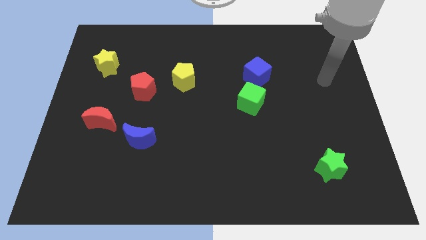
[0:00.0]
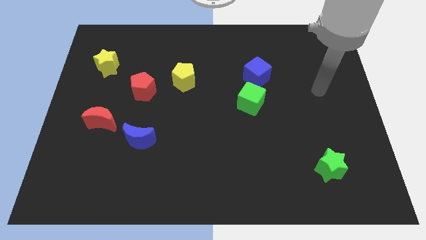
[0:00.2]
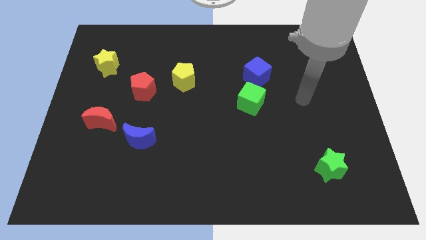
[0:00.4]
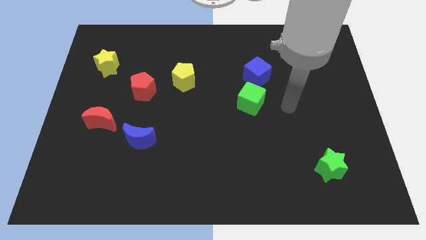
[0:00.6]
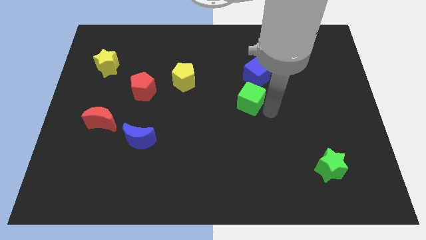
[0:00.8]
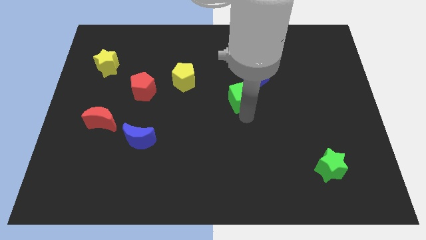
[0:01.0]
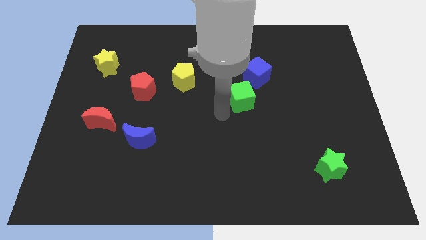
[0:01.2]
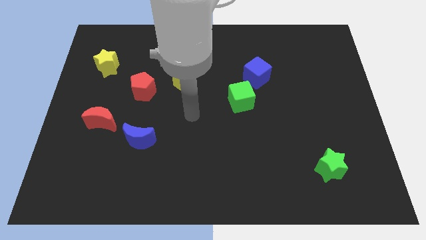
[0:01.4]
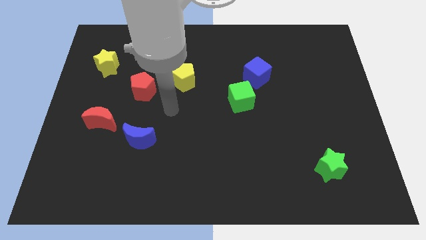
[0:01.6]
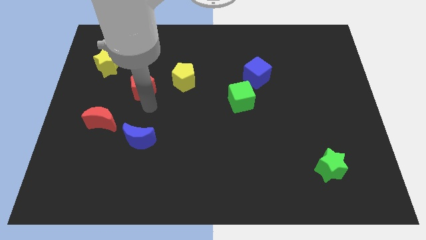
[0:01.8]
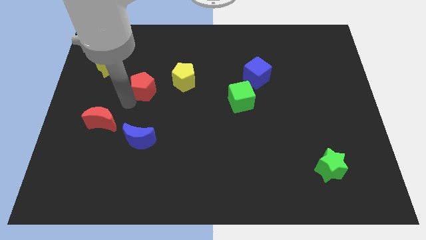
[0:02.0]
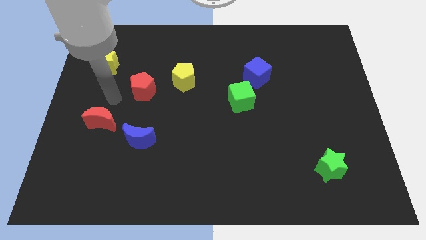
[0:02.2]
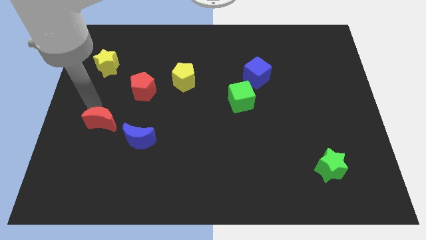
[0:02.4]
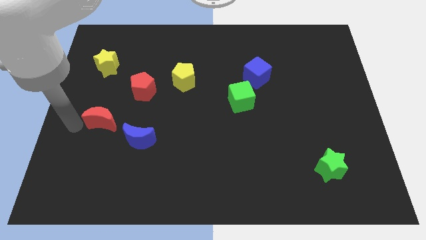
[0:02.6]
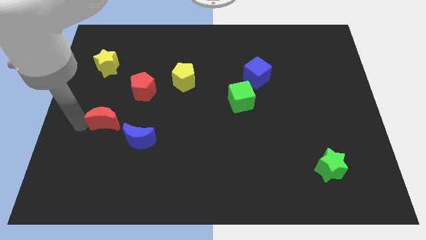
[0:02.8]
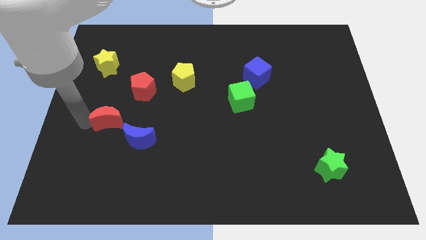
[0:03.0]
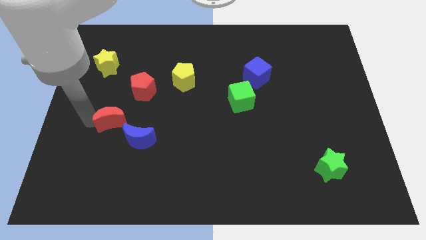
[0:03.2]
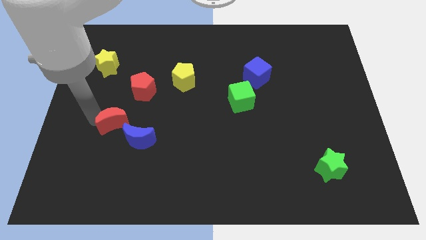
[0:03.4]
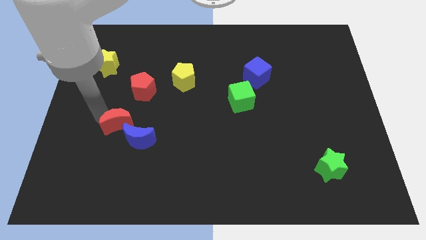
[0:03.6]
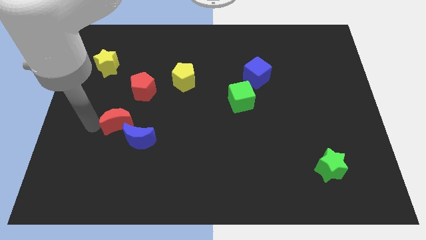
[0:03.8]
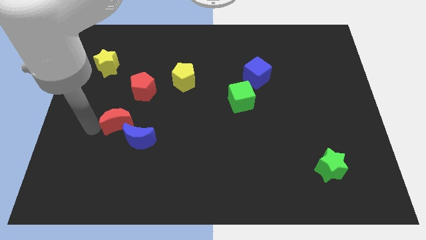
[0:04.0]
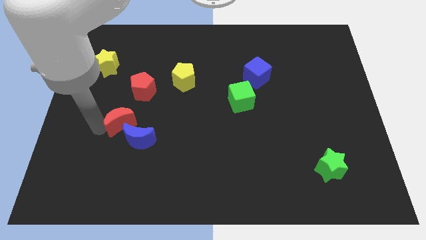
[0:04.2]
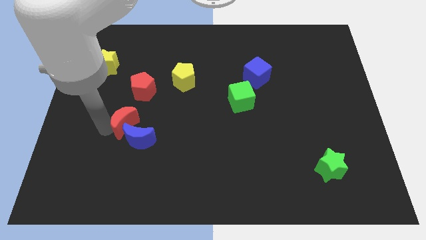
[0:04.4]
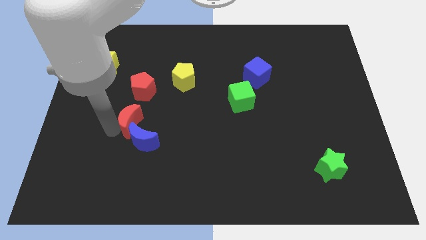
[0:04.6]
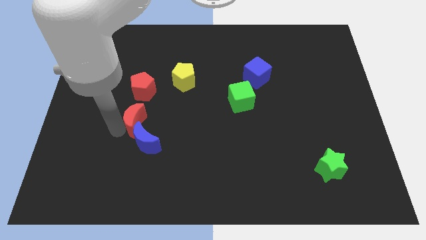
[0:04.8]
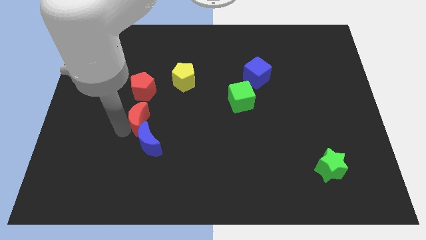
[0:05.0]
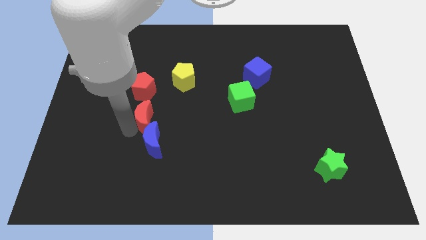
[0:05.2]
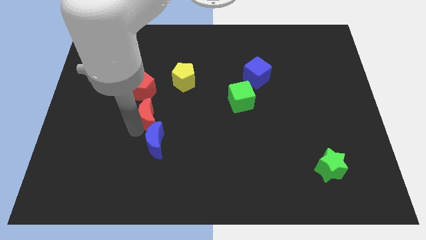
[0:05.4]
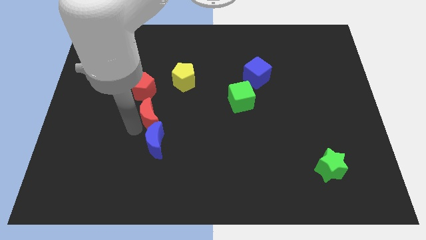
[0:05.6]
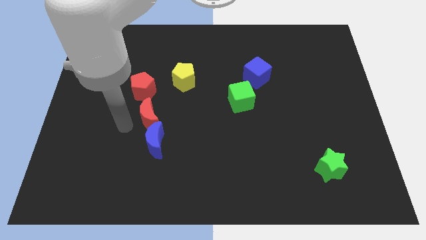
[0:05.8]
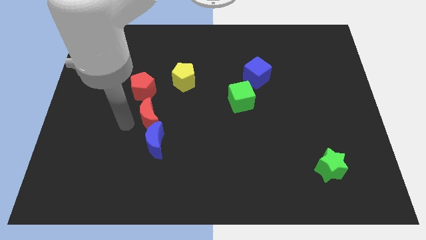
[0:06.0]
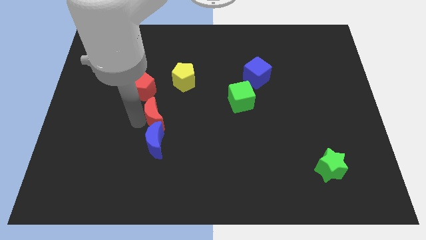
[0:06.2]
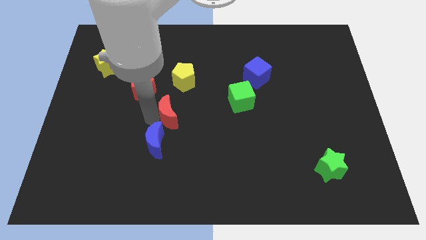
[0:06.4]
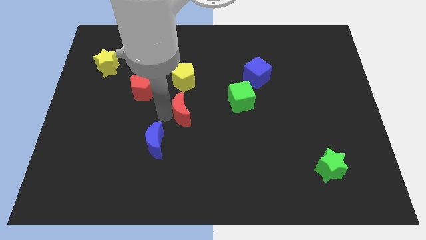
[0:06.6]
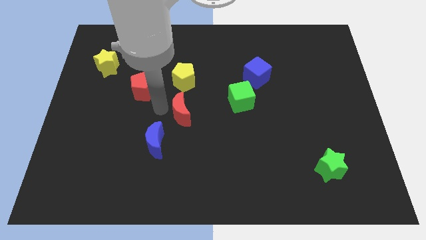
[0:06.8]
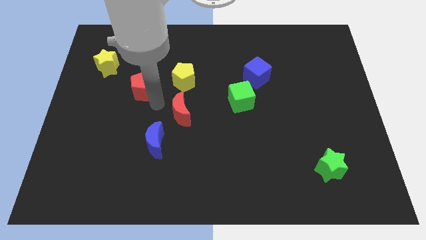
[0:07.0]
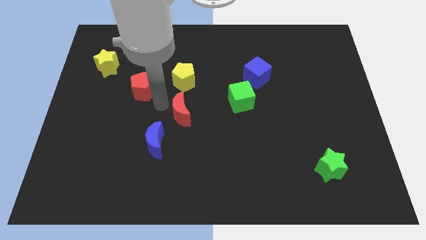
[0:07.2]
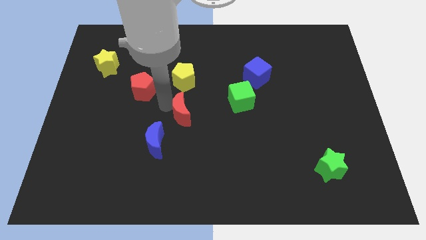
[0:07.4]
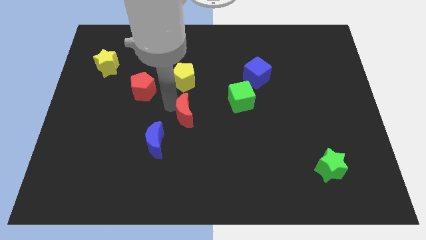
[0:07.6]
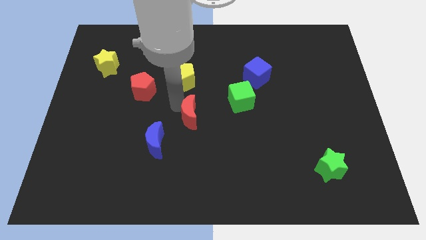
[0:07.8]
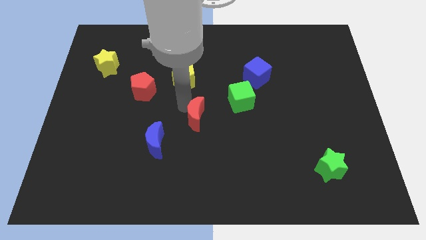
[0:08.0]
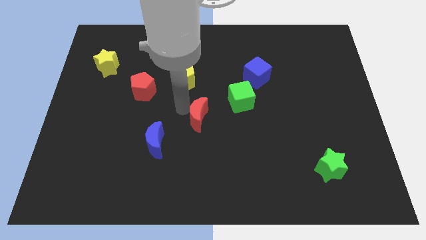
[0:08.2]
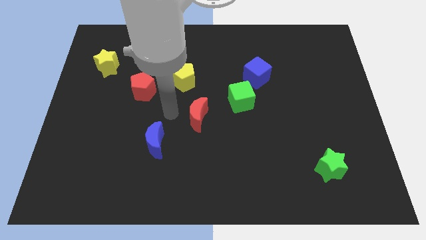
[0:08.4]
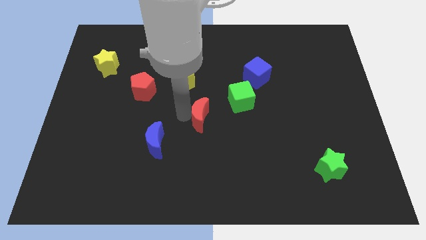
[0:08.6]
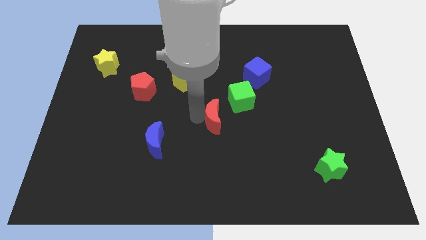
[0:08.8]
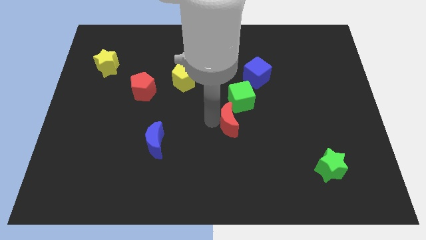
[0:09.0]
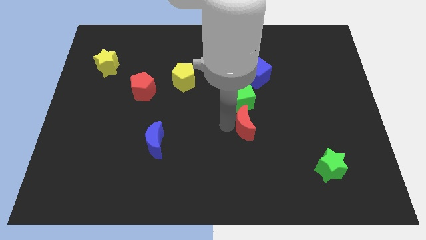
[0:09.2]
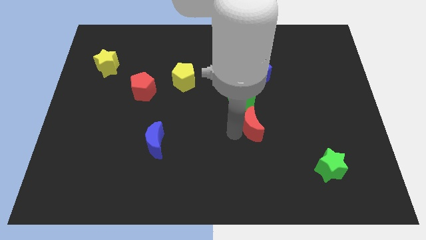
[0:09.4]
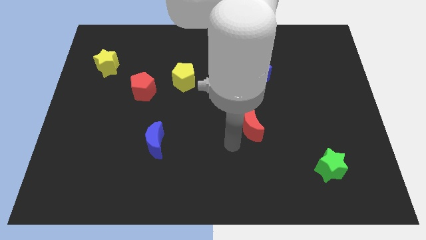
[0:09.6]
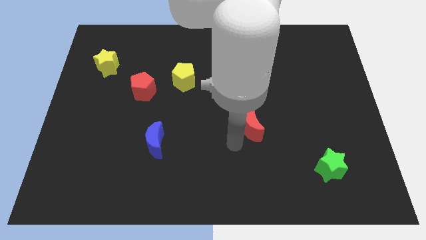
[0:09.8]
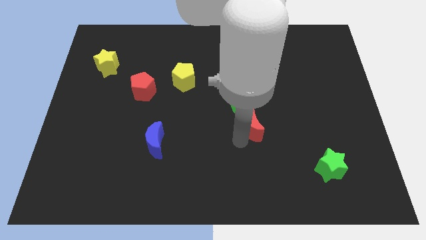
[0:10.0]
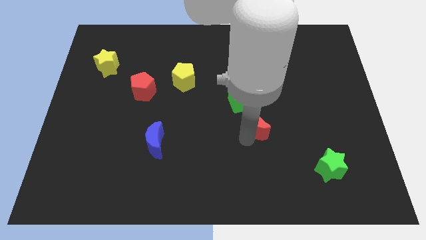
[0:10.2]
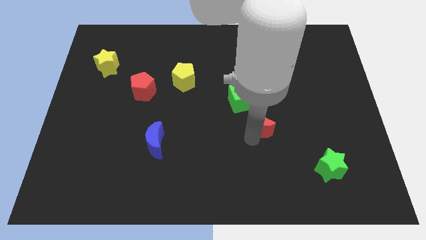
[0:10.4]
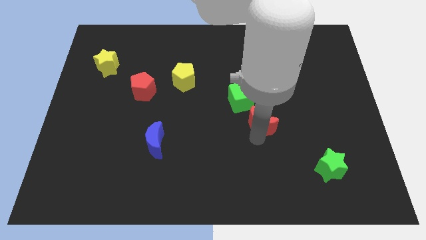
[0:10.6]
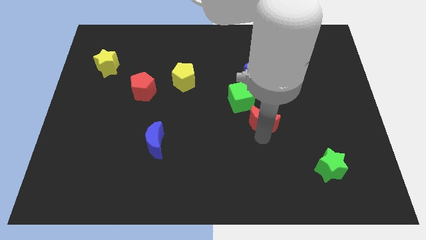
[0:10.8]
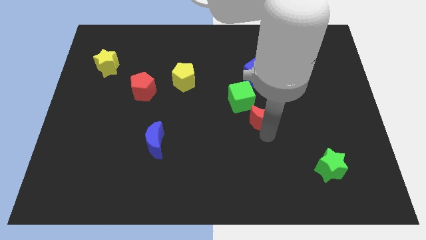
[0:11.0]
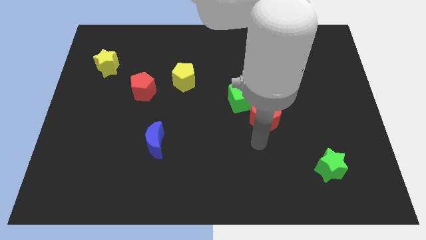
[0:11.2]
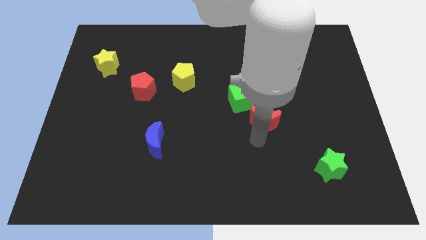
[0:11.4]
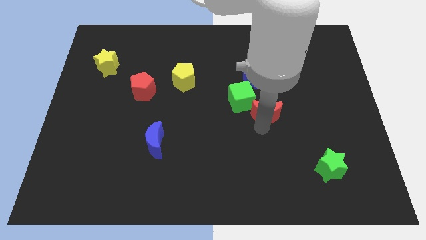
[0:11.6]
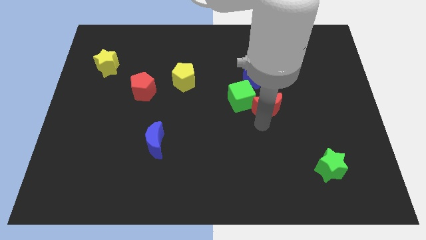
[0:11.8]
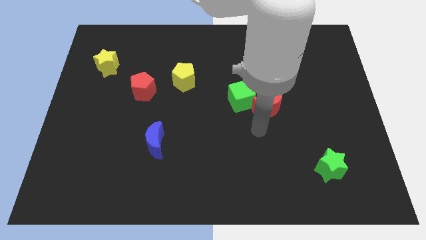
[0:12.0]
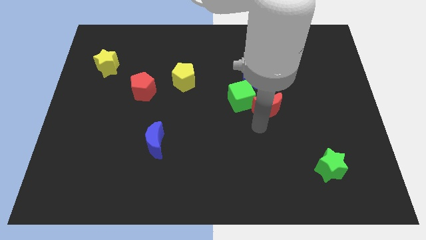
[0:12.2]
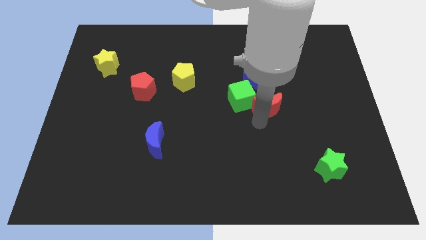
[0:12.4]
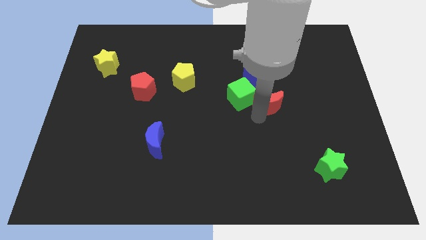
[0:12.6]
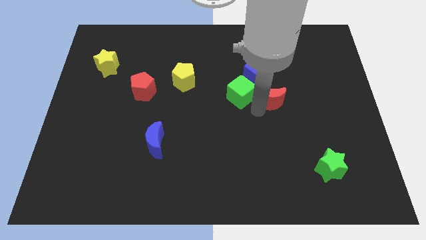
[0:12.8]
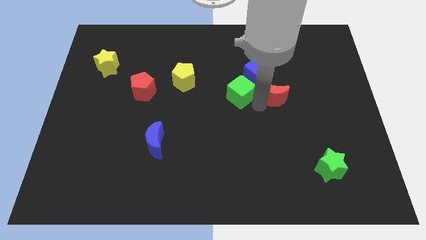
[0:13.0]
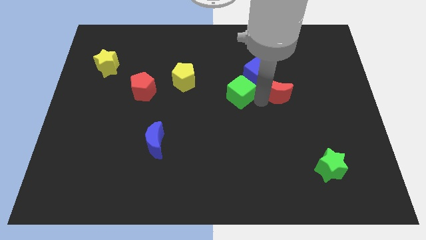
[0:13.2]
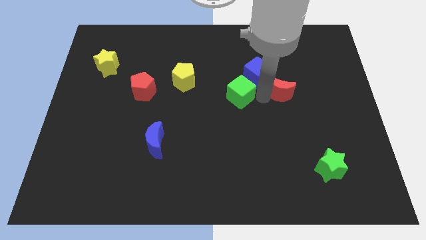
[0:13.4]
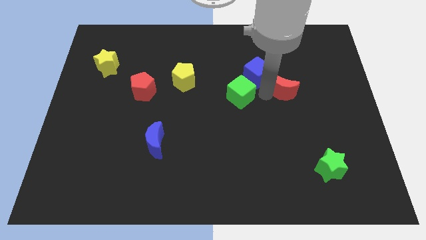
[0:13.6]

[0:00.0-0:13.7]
slide the red moon to the right side of the blue cube
